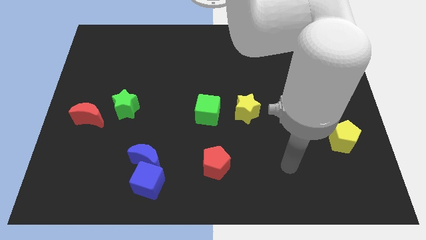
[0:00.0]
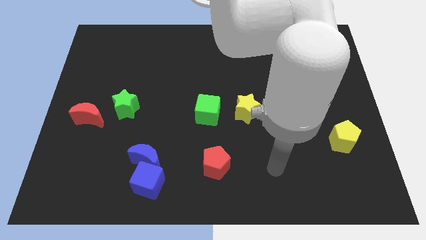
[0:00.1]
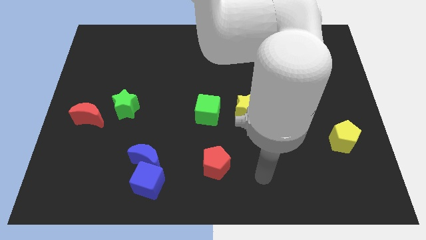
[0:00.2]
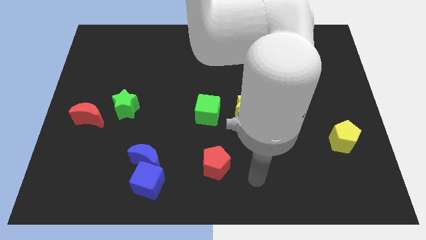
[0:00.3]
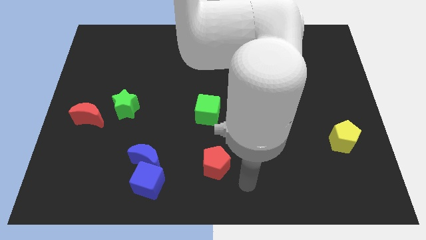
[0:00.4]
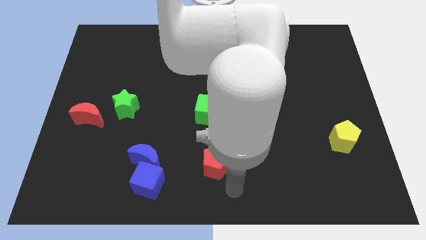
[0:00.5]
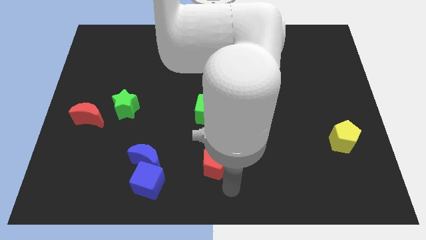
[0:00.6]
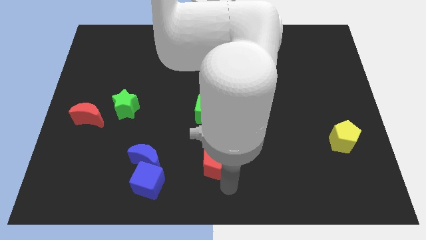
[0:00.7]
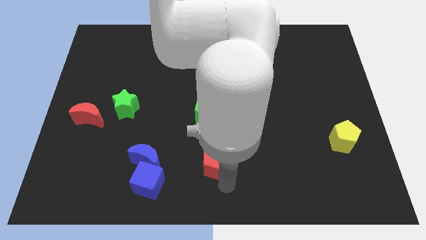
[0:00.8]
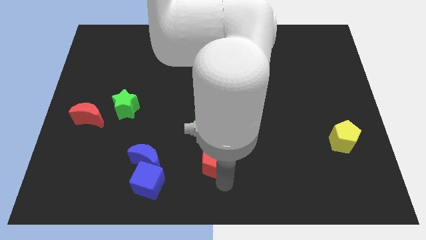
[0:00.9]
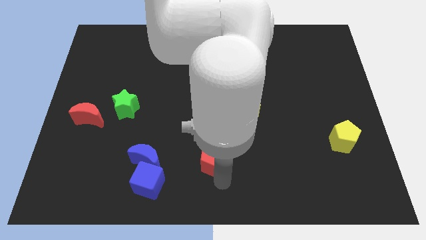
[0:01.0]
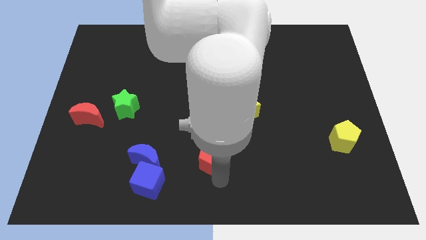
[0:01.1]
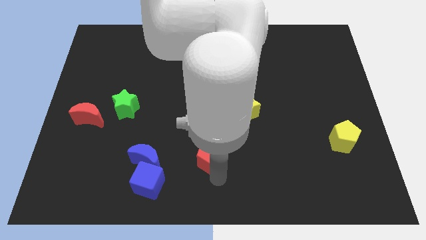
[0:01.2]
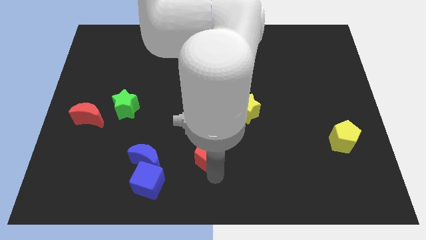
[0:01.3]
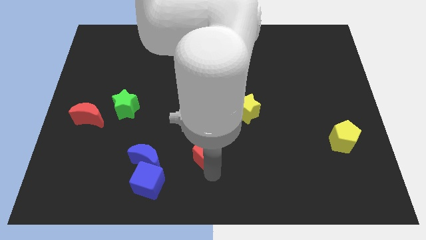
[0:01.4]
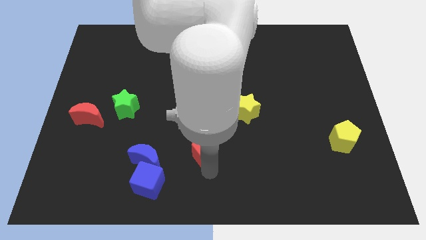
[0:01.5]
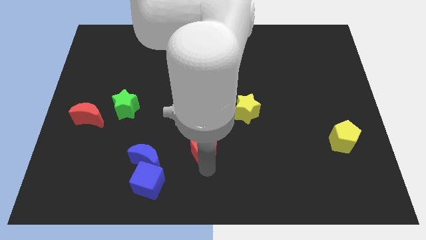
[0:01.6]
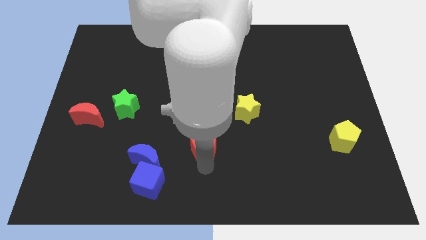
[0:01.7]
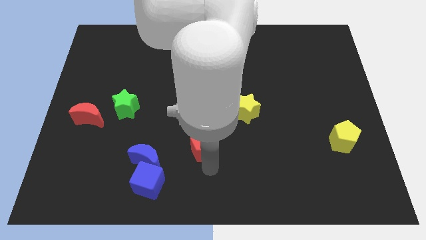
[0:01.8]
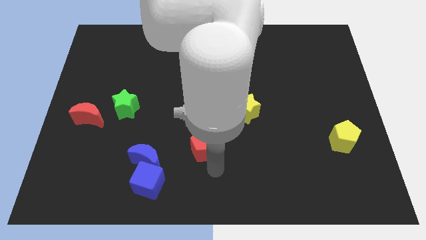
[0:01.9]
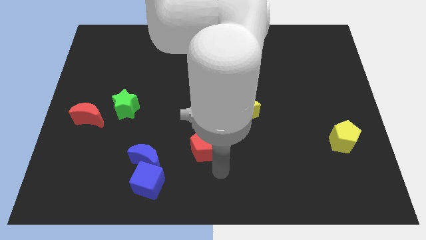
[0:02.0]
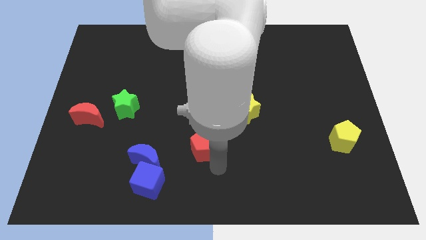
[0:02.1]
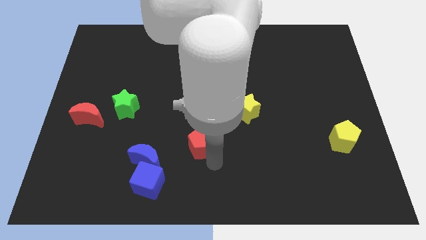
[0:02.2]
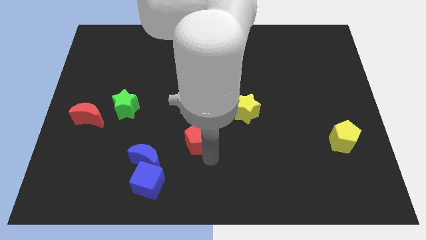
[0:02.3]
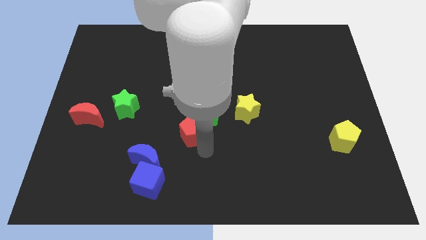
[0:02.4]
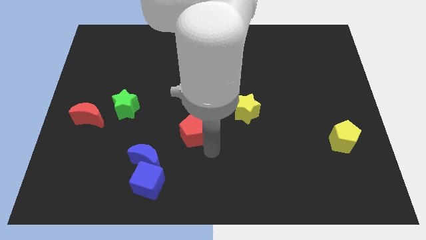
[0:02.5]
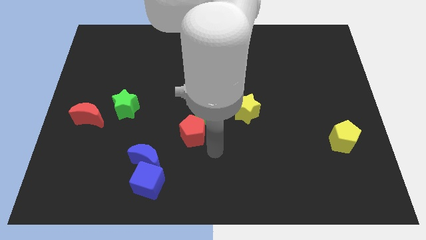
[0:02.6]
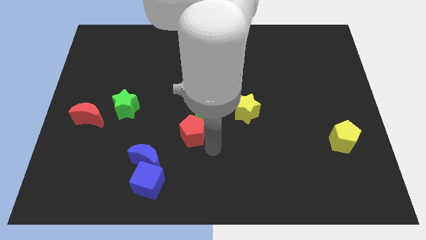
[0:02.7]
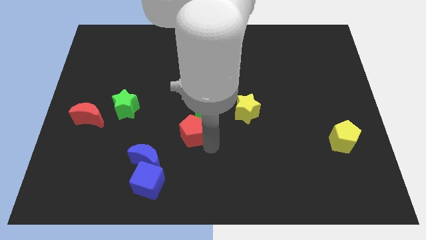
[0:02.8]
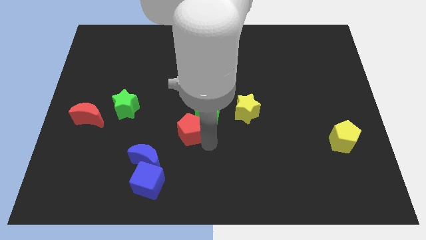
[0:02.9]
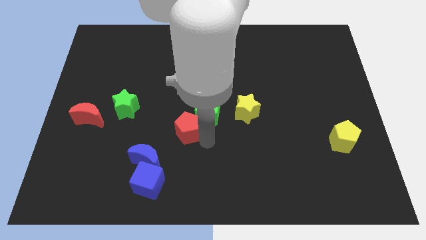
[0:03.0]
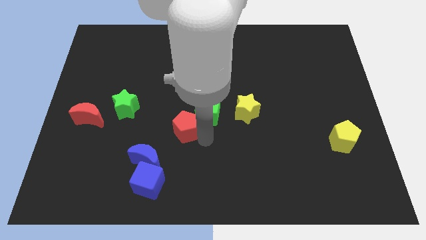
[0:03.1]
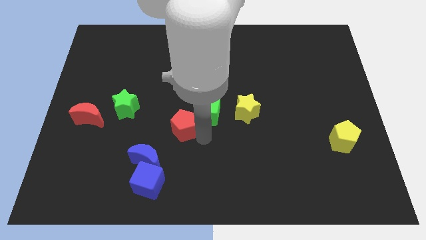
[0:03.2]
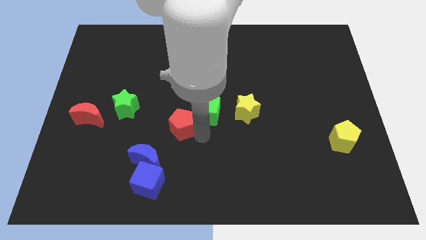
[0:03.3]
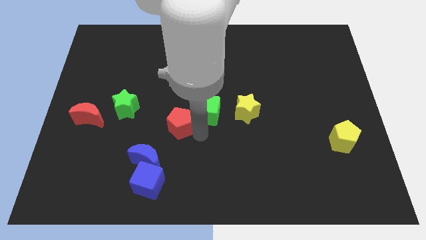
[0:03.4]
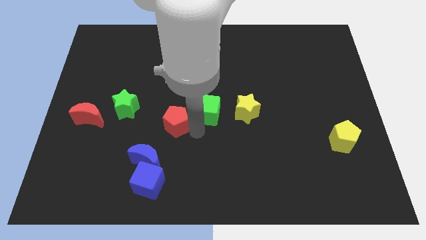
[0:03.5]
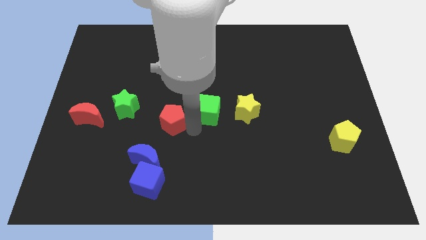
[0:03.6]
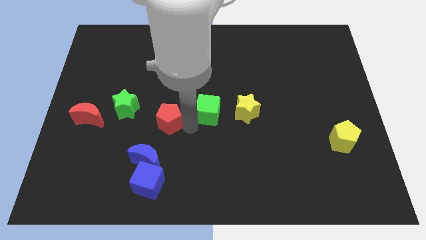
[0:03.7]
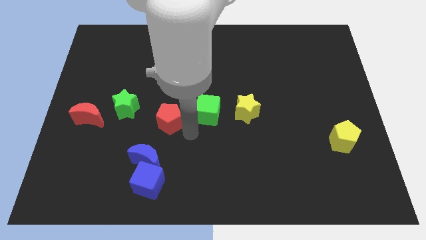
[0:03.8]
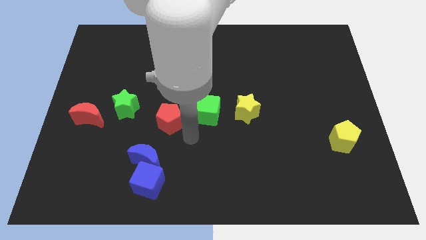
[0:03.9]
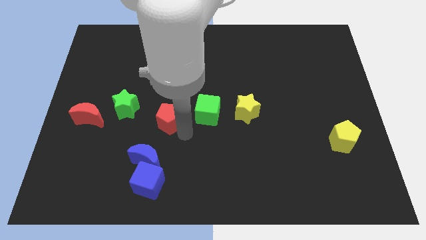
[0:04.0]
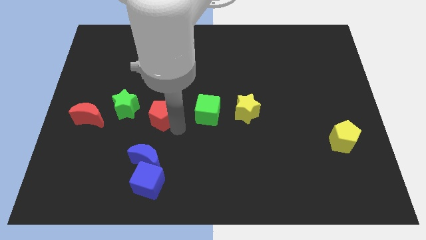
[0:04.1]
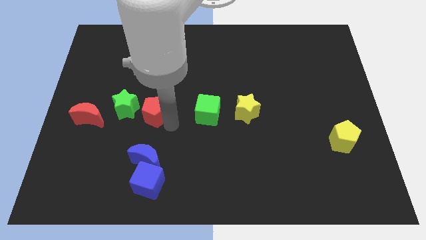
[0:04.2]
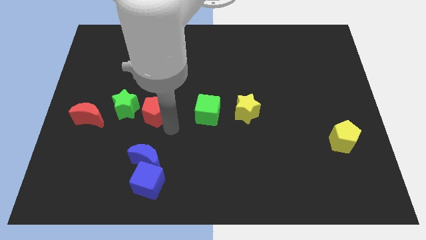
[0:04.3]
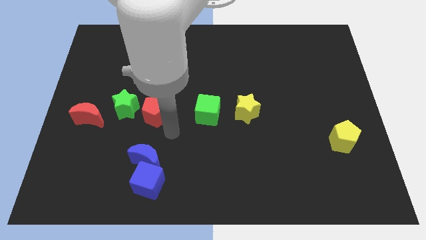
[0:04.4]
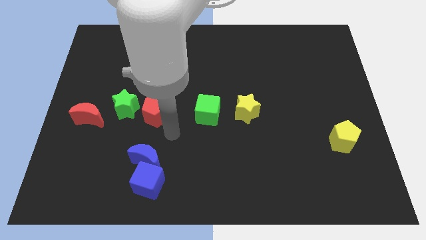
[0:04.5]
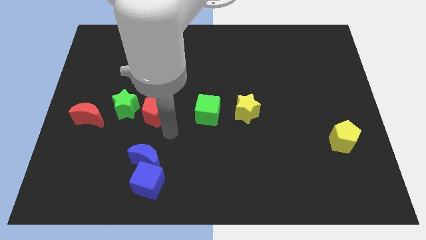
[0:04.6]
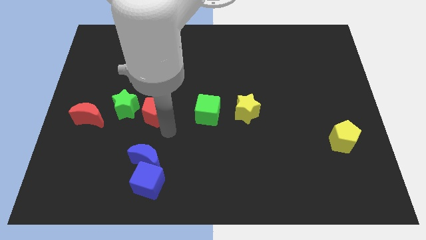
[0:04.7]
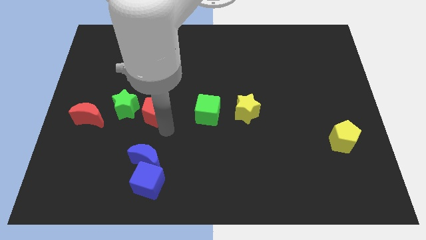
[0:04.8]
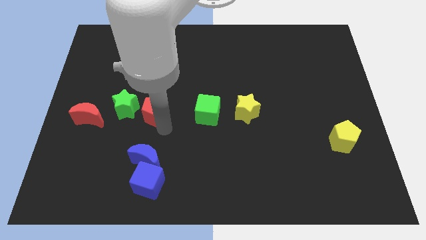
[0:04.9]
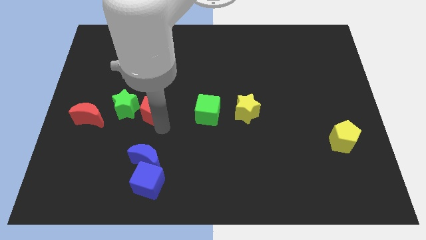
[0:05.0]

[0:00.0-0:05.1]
move the red pentagon diagonally up and to the left

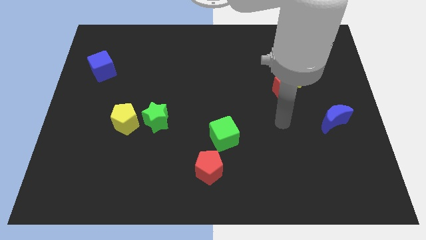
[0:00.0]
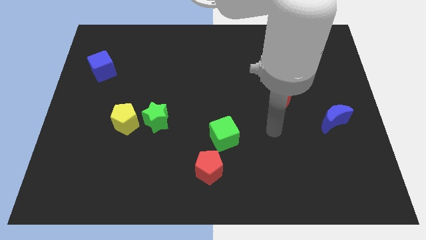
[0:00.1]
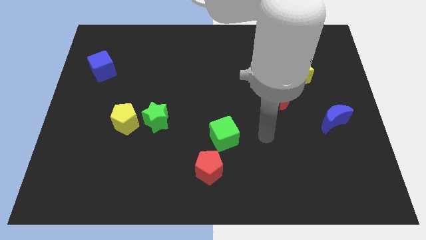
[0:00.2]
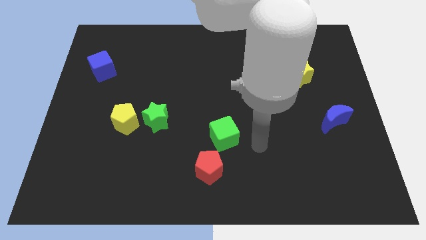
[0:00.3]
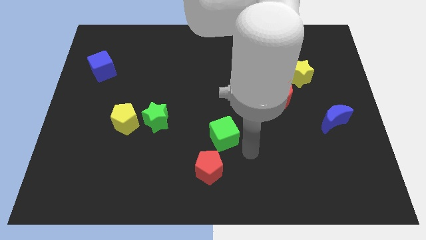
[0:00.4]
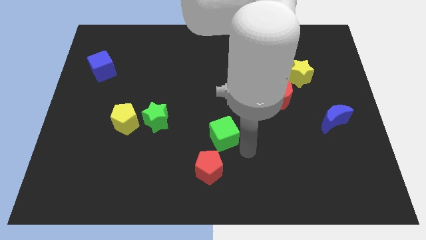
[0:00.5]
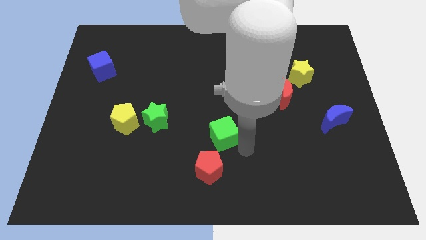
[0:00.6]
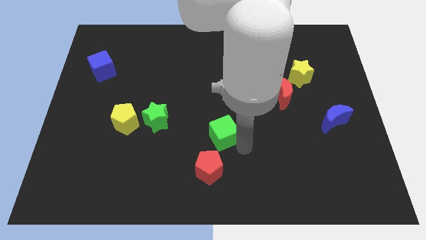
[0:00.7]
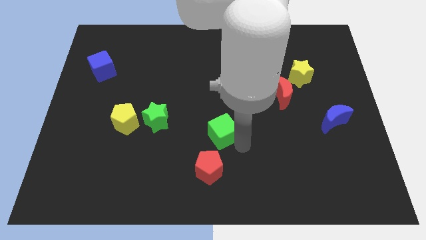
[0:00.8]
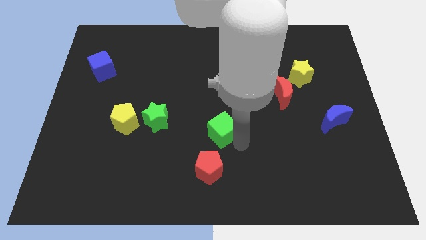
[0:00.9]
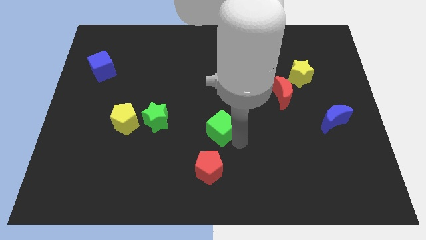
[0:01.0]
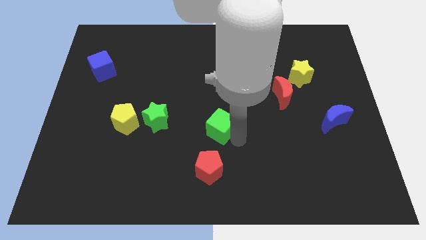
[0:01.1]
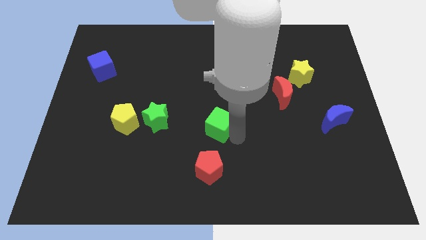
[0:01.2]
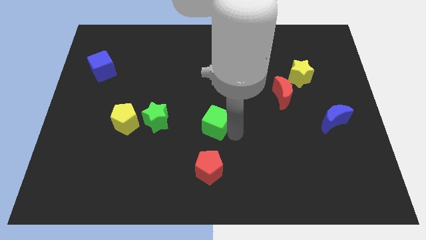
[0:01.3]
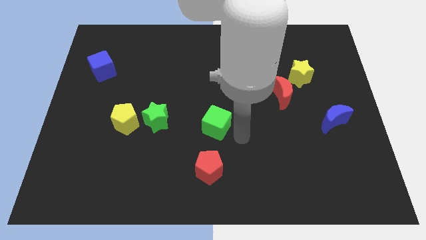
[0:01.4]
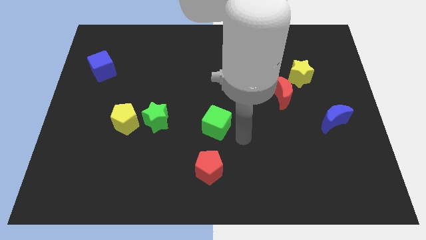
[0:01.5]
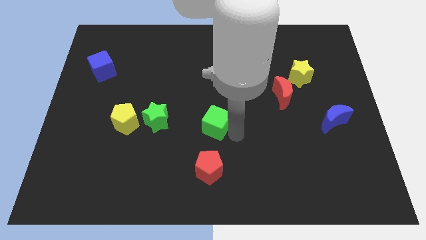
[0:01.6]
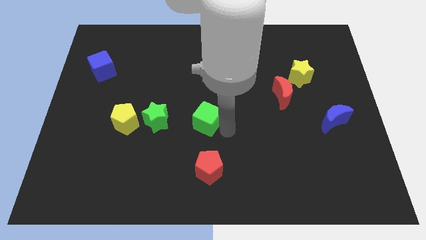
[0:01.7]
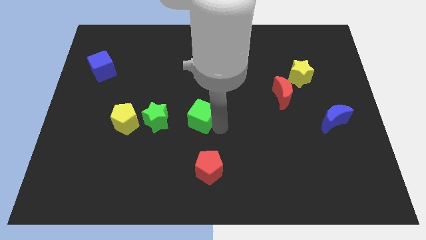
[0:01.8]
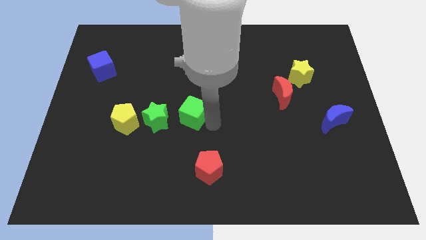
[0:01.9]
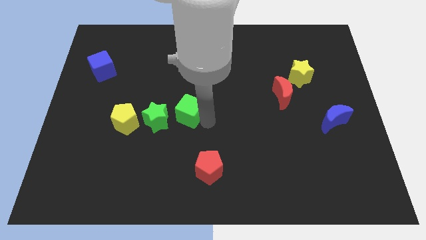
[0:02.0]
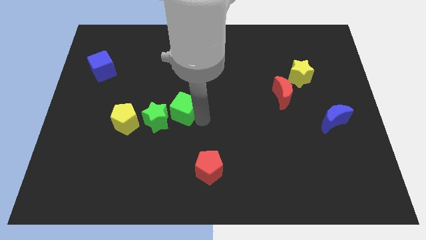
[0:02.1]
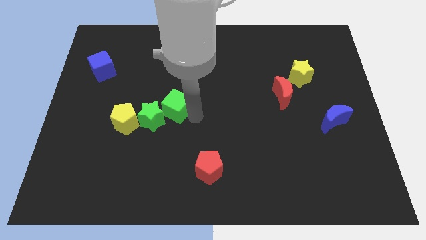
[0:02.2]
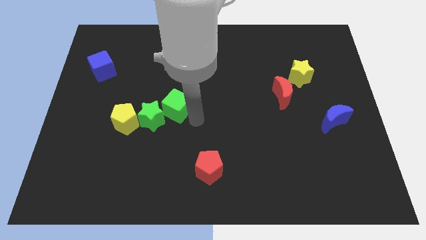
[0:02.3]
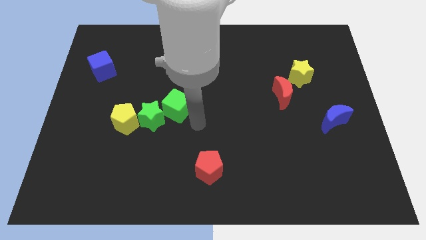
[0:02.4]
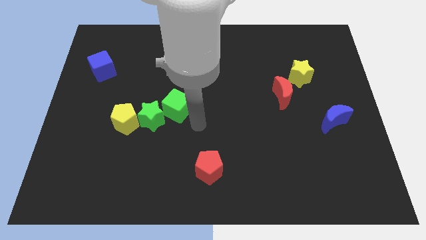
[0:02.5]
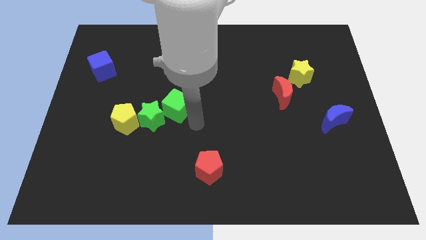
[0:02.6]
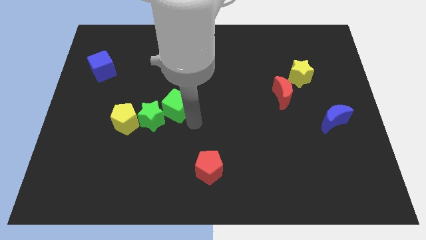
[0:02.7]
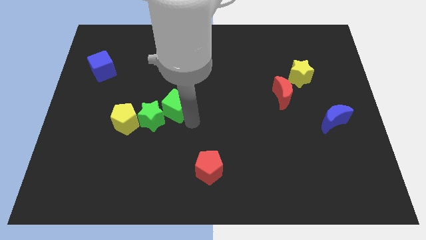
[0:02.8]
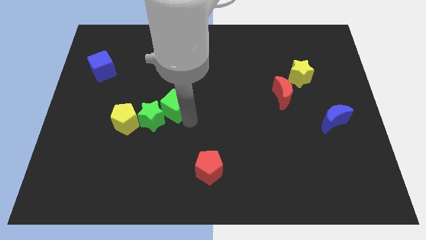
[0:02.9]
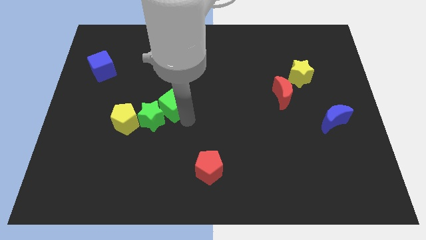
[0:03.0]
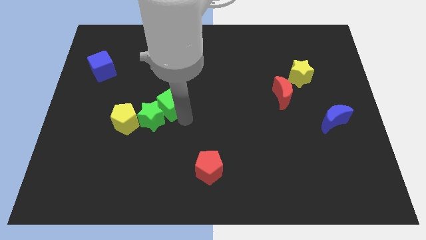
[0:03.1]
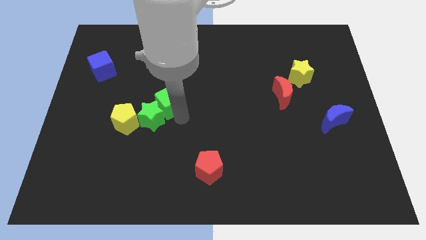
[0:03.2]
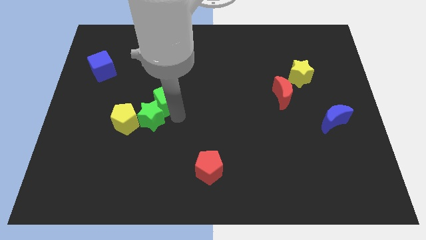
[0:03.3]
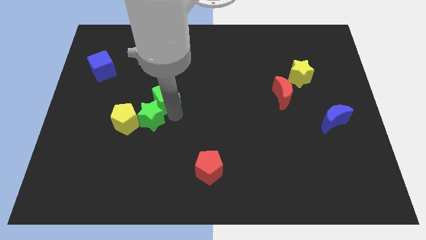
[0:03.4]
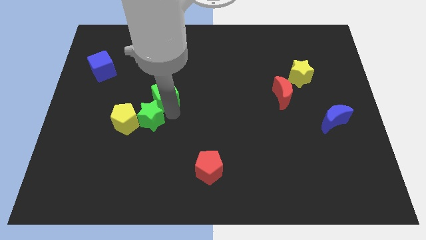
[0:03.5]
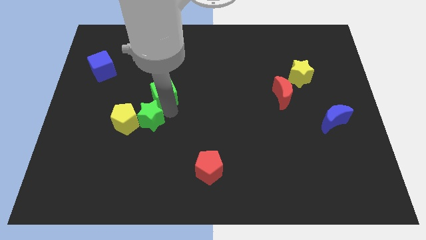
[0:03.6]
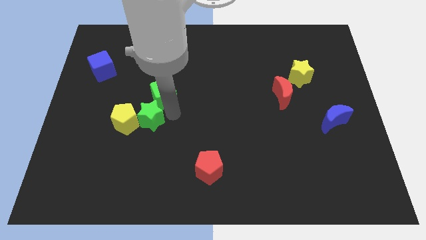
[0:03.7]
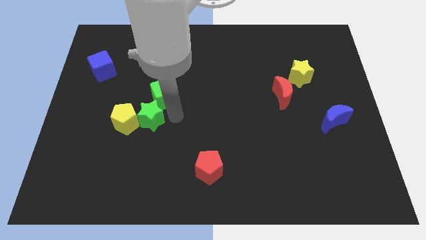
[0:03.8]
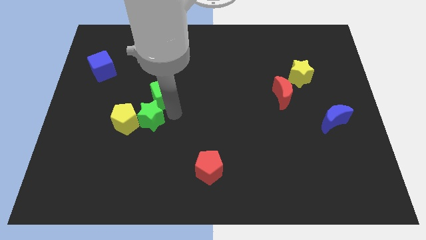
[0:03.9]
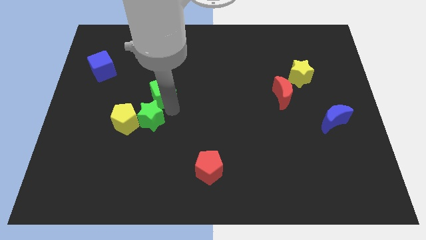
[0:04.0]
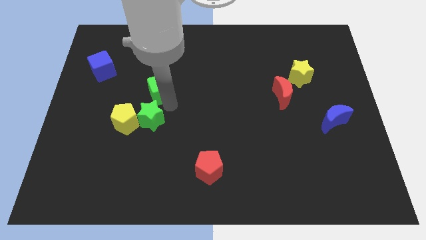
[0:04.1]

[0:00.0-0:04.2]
push the green cube up and then to the left
